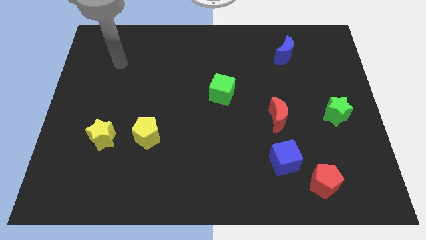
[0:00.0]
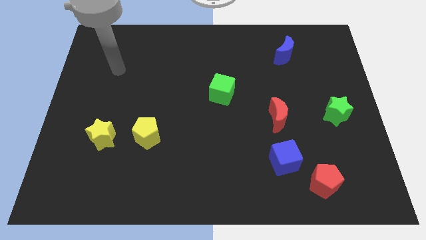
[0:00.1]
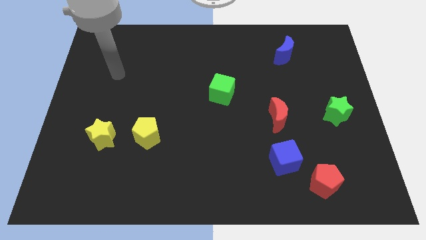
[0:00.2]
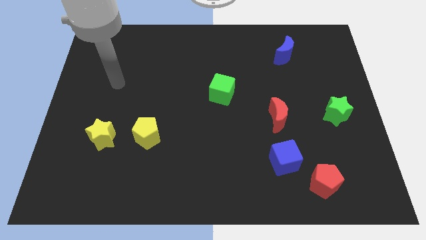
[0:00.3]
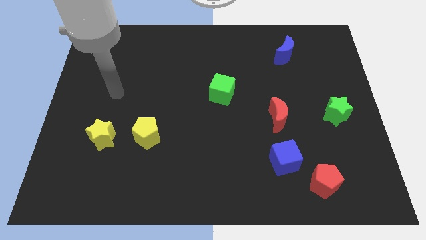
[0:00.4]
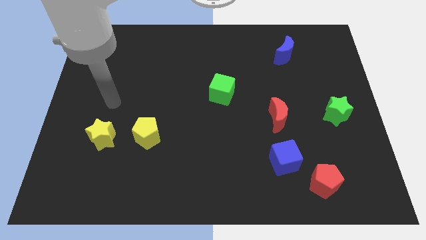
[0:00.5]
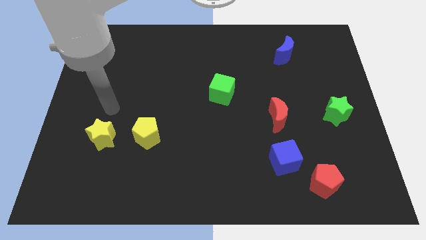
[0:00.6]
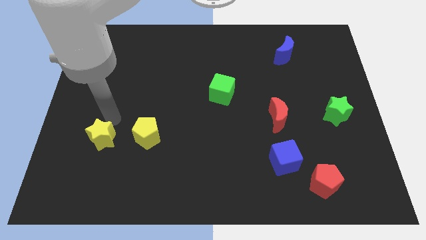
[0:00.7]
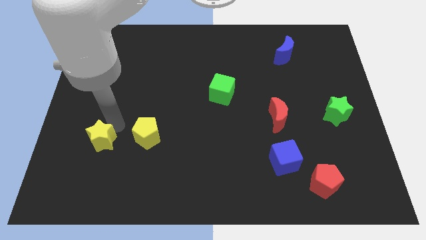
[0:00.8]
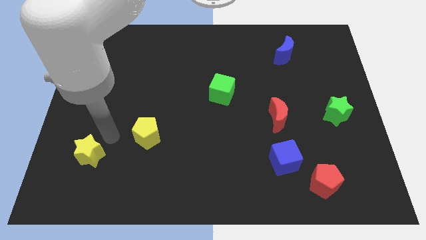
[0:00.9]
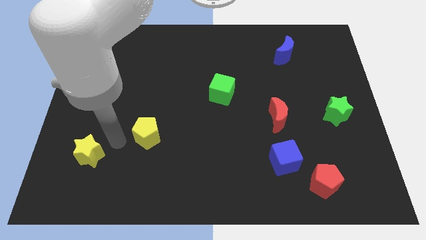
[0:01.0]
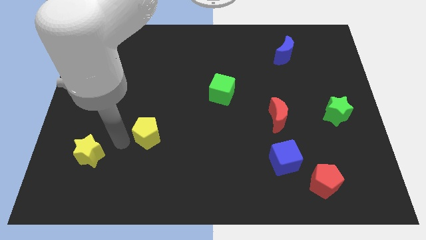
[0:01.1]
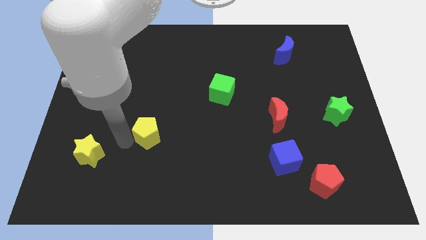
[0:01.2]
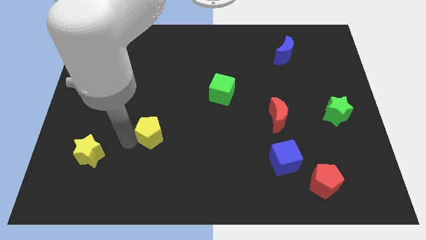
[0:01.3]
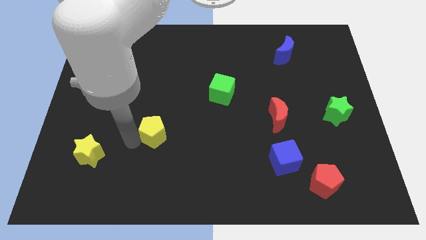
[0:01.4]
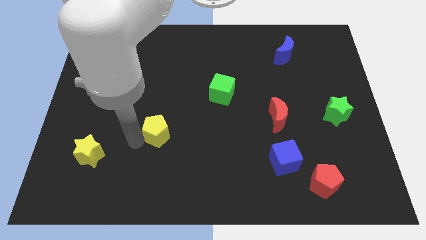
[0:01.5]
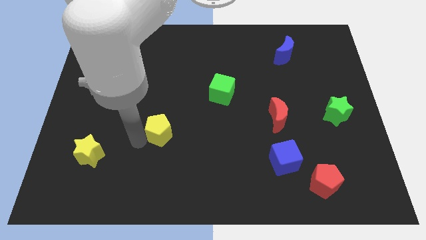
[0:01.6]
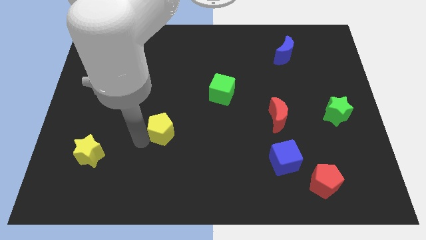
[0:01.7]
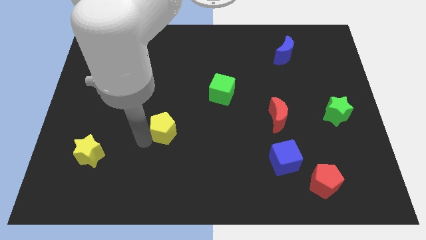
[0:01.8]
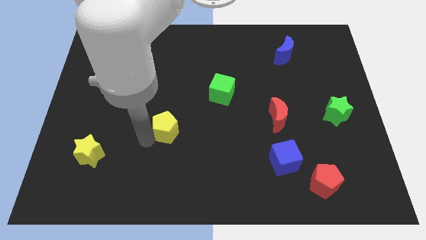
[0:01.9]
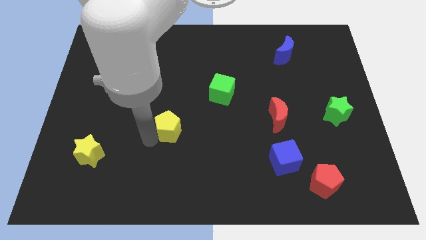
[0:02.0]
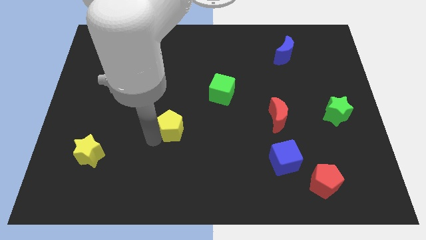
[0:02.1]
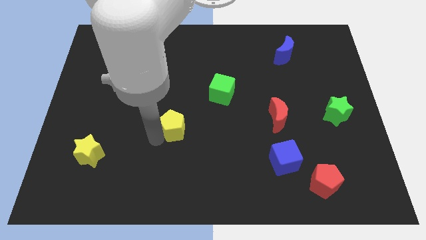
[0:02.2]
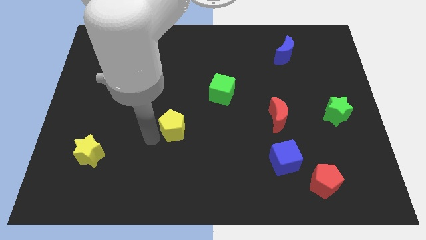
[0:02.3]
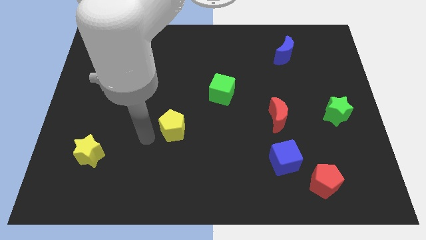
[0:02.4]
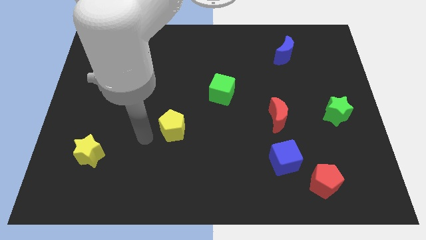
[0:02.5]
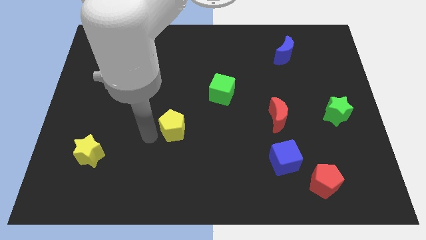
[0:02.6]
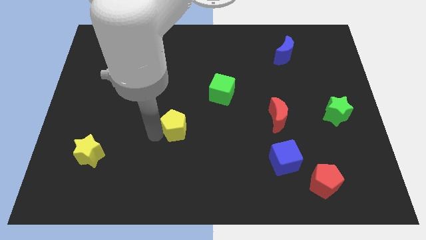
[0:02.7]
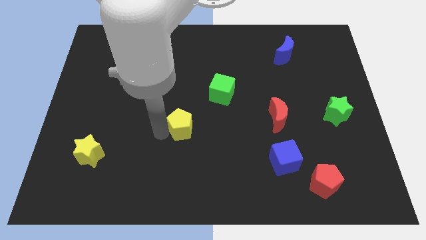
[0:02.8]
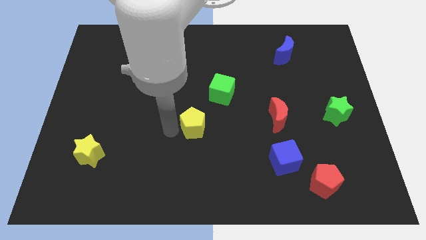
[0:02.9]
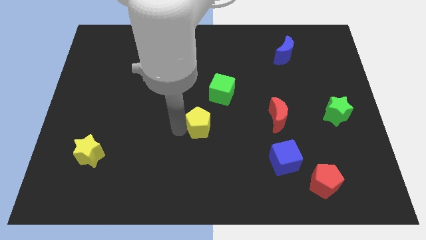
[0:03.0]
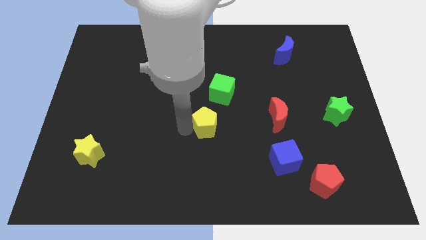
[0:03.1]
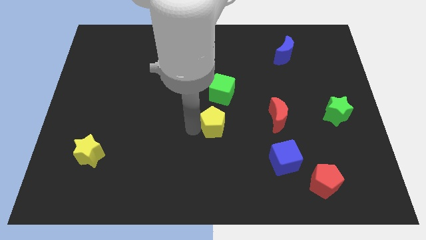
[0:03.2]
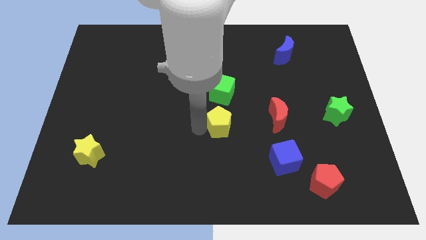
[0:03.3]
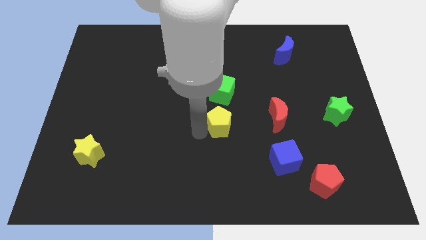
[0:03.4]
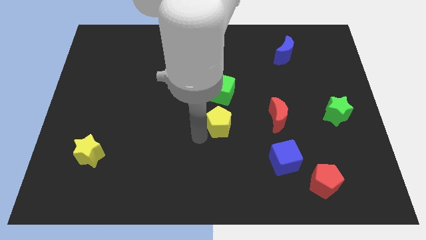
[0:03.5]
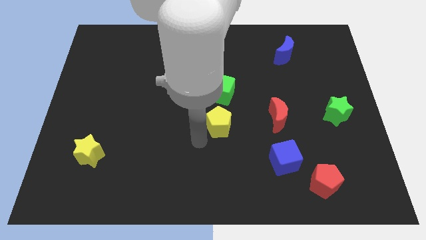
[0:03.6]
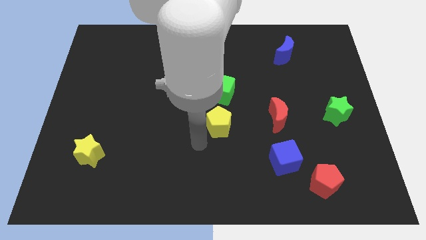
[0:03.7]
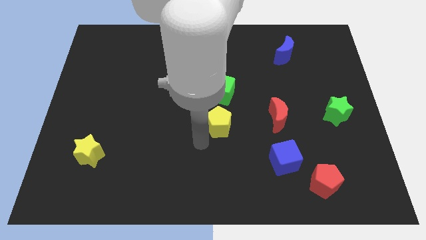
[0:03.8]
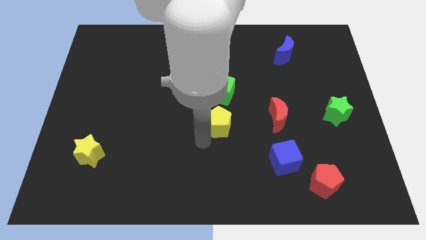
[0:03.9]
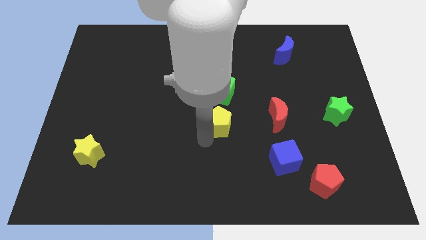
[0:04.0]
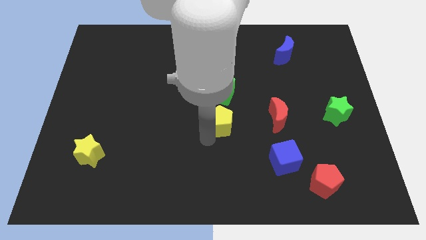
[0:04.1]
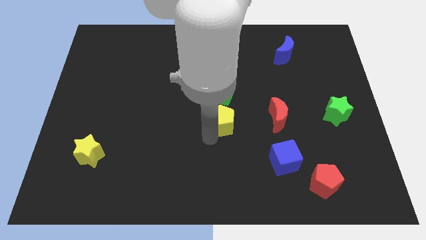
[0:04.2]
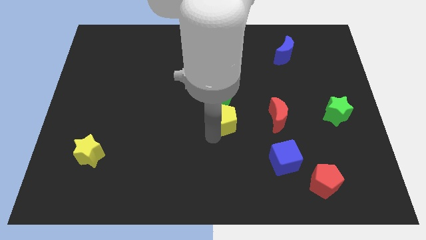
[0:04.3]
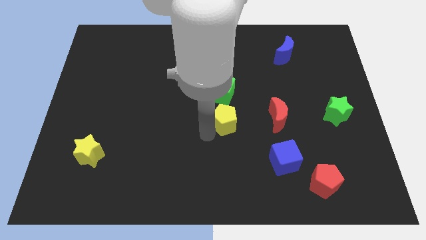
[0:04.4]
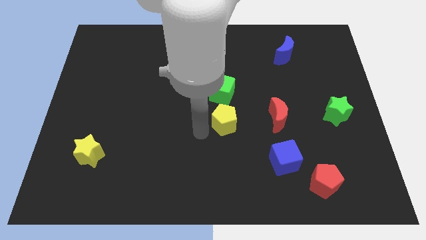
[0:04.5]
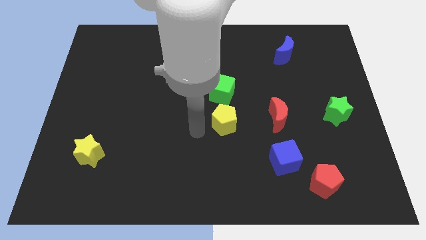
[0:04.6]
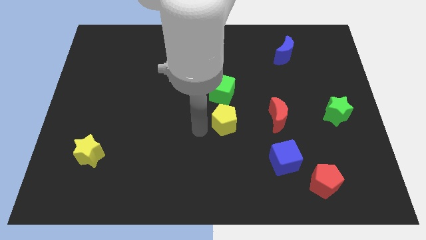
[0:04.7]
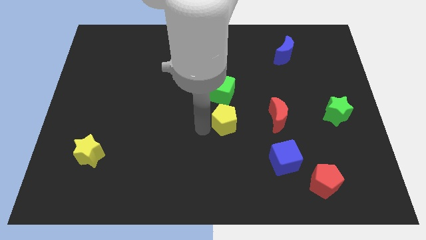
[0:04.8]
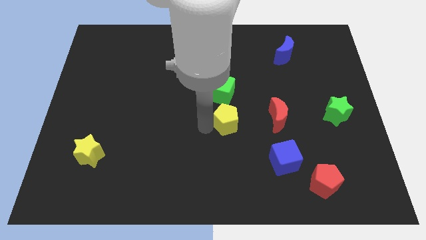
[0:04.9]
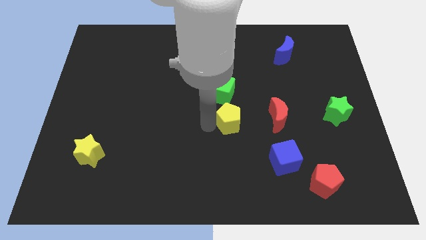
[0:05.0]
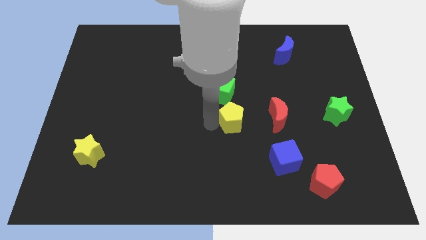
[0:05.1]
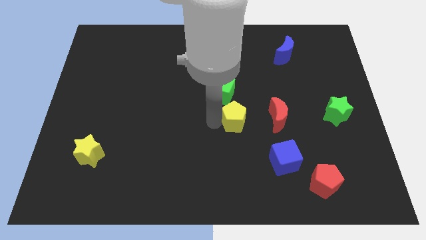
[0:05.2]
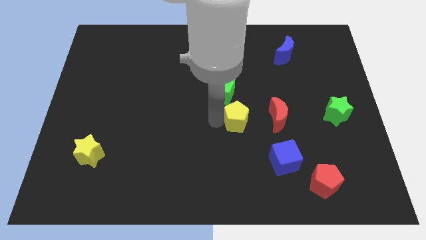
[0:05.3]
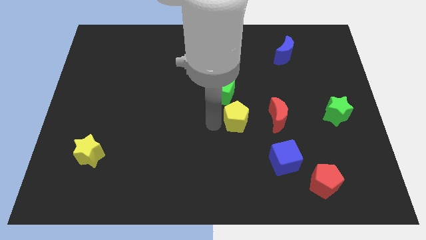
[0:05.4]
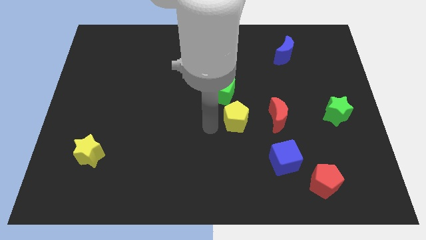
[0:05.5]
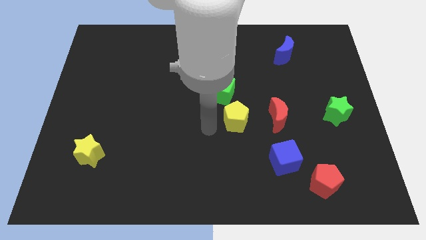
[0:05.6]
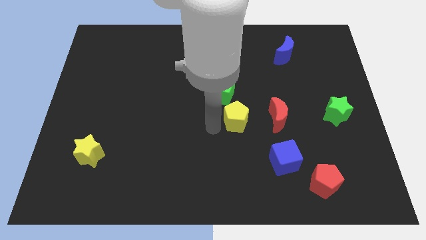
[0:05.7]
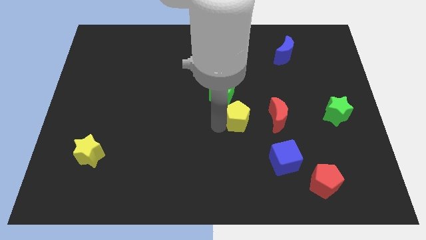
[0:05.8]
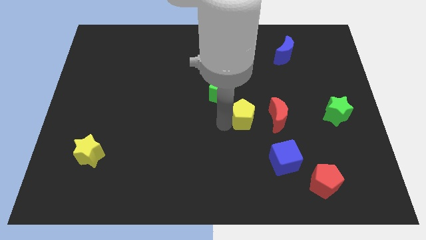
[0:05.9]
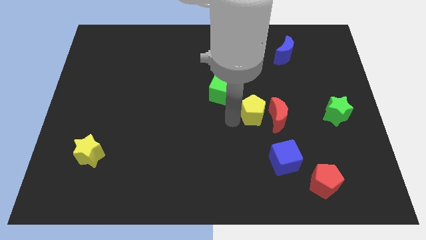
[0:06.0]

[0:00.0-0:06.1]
move the yellow pentagon to the red moon

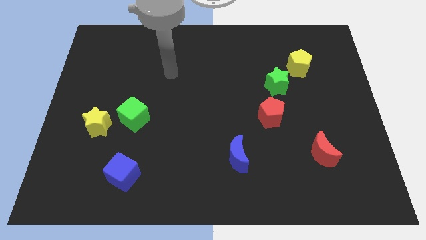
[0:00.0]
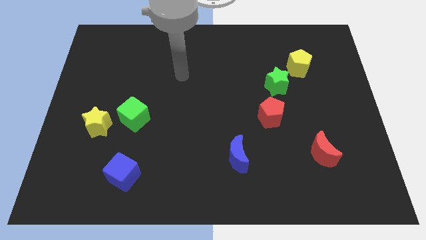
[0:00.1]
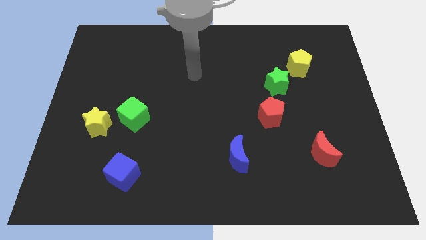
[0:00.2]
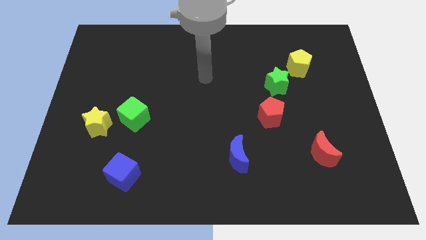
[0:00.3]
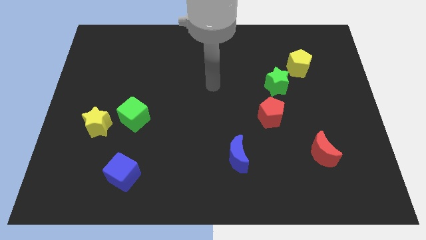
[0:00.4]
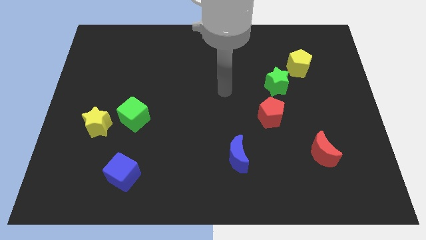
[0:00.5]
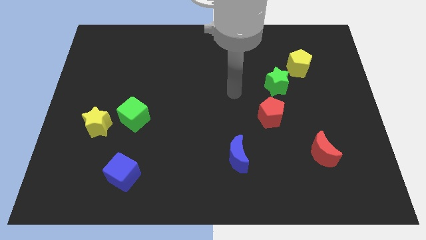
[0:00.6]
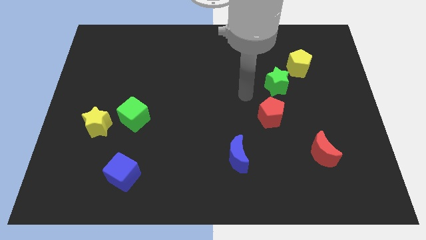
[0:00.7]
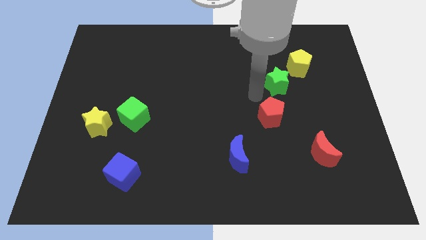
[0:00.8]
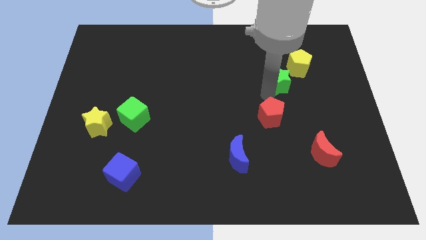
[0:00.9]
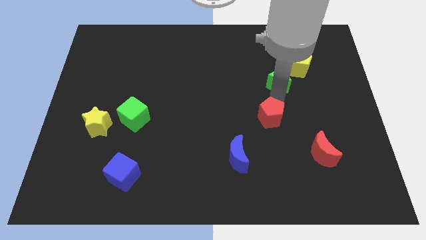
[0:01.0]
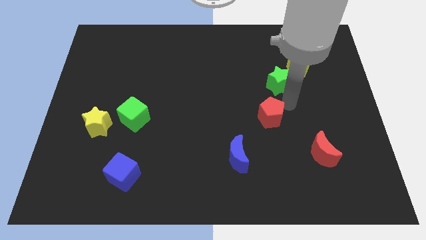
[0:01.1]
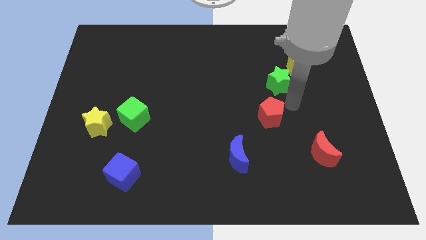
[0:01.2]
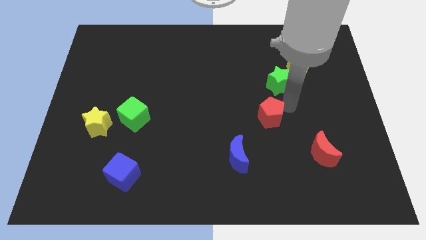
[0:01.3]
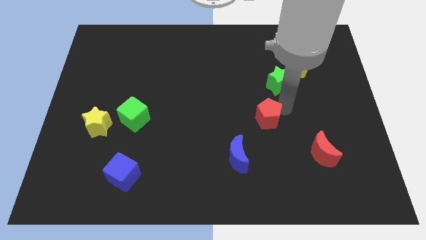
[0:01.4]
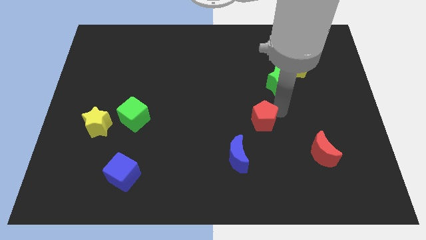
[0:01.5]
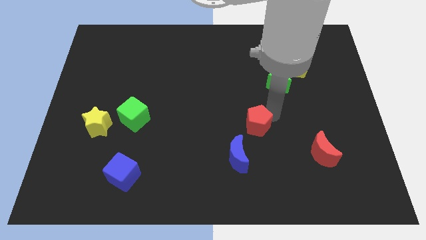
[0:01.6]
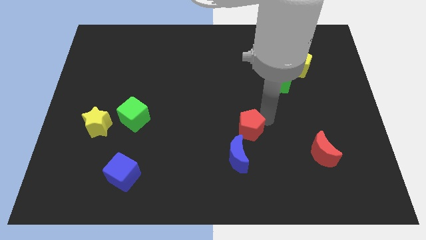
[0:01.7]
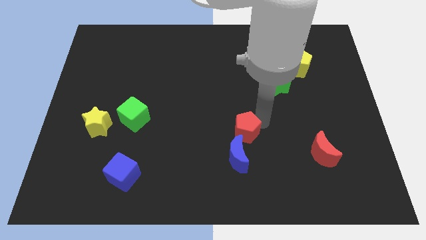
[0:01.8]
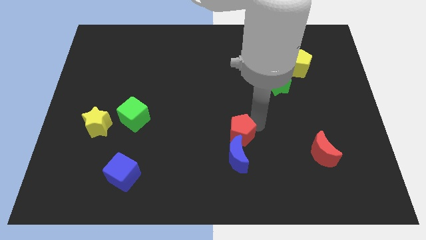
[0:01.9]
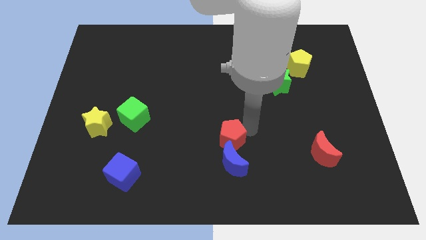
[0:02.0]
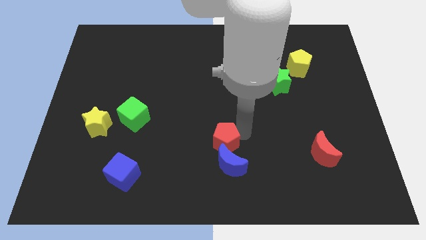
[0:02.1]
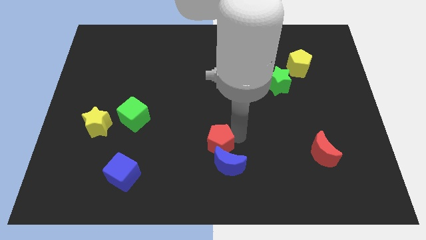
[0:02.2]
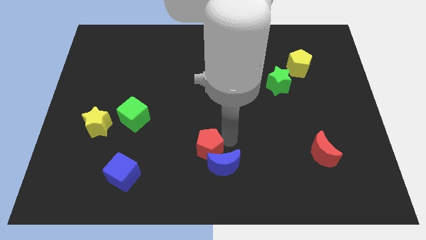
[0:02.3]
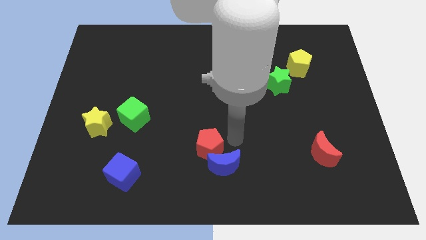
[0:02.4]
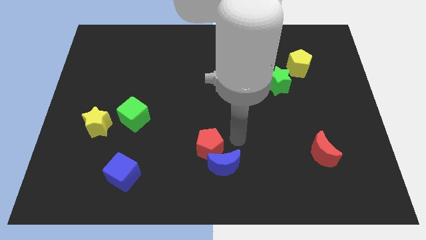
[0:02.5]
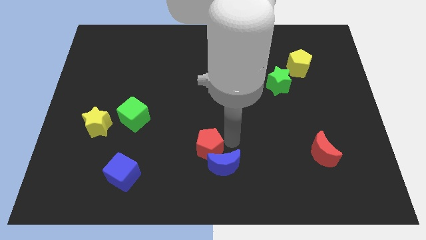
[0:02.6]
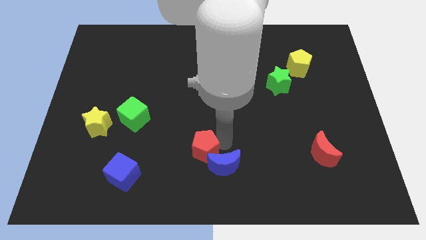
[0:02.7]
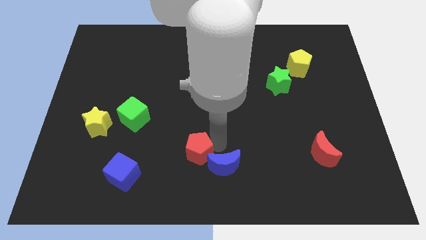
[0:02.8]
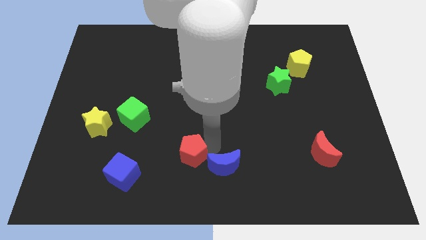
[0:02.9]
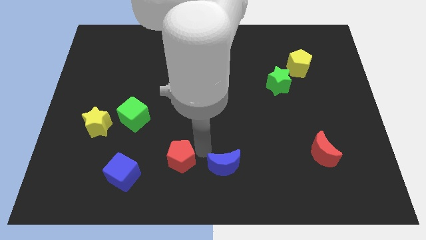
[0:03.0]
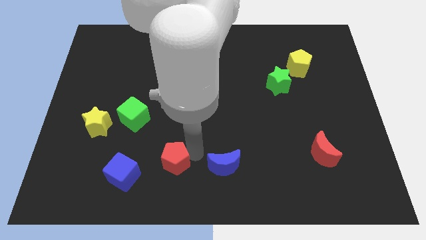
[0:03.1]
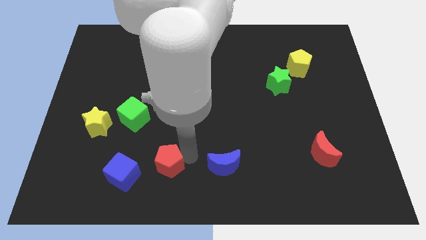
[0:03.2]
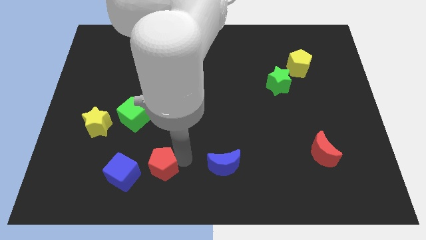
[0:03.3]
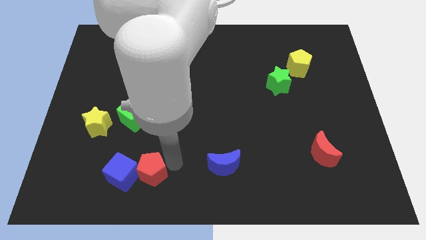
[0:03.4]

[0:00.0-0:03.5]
slide the red pentagon towards the blue cube
